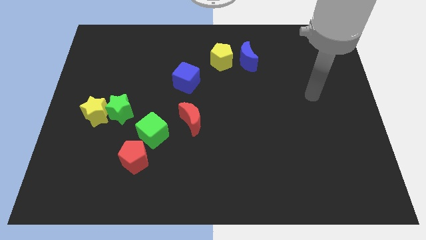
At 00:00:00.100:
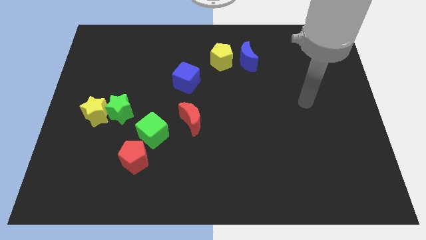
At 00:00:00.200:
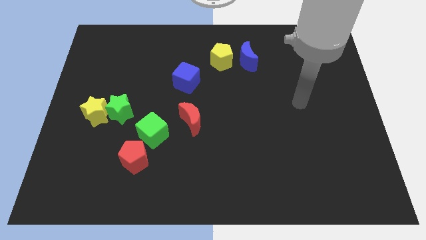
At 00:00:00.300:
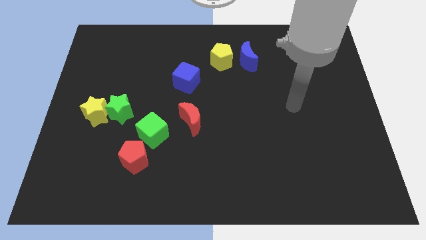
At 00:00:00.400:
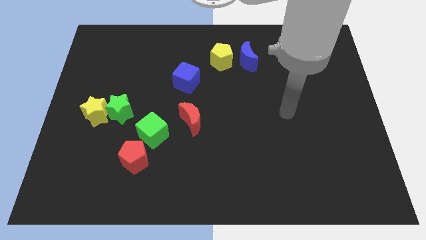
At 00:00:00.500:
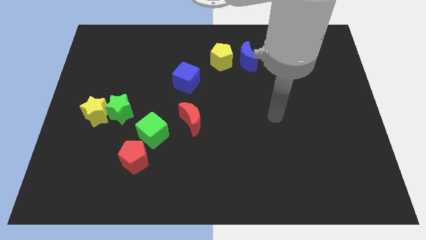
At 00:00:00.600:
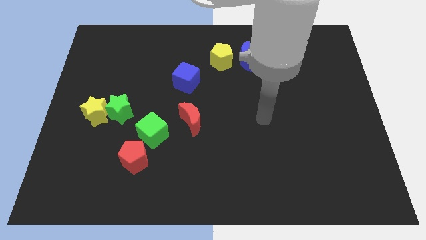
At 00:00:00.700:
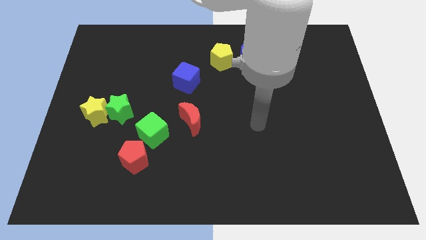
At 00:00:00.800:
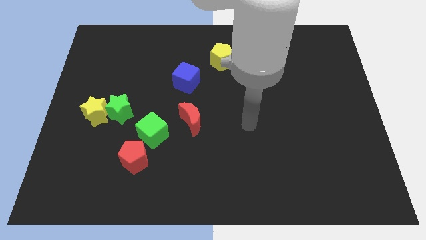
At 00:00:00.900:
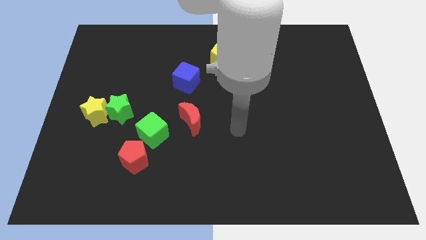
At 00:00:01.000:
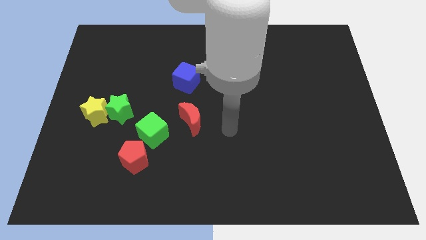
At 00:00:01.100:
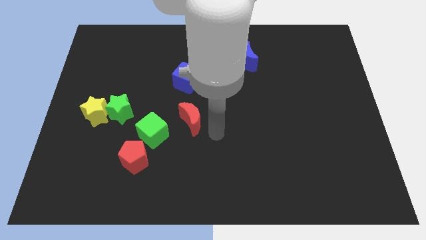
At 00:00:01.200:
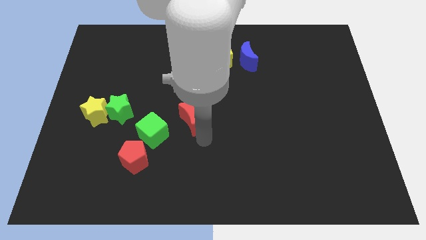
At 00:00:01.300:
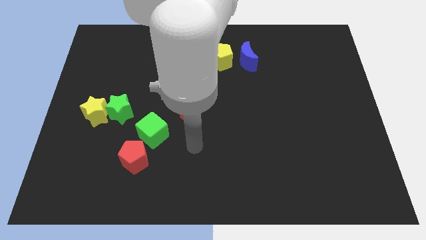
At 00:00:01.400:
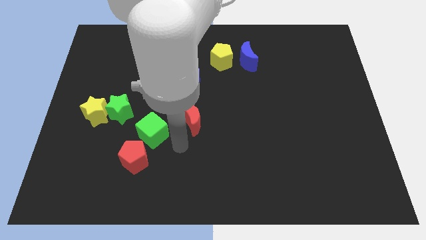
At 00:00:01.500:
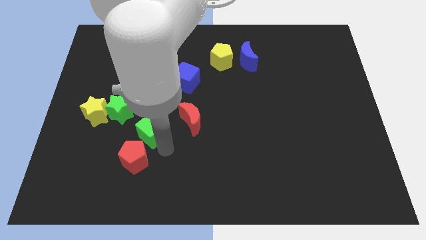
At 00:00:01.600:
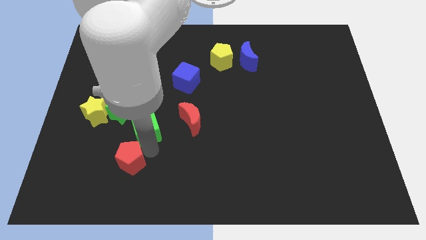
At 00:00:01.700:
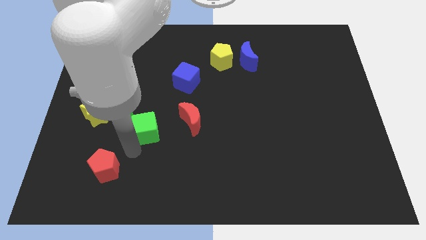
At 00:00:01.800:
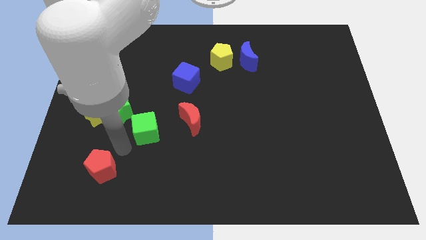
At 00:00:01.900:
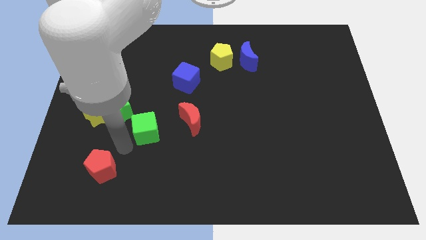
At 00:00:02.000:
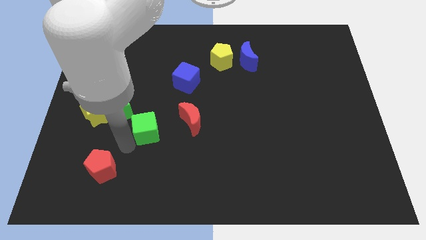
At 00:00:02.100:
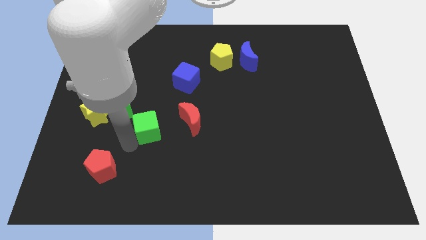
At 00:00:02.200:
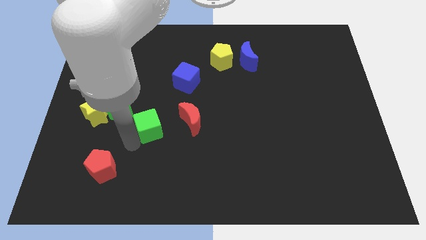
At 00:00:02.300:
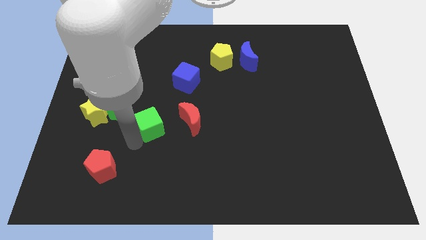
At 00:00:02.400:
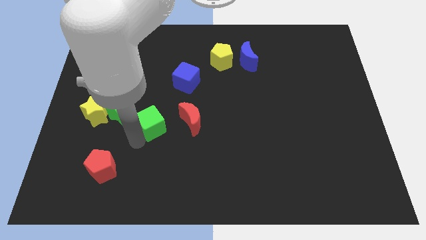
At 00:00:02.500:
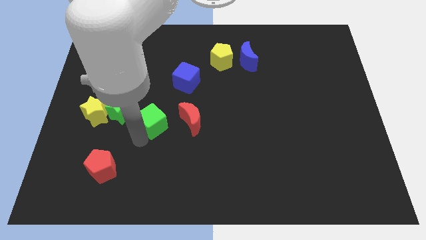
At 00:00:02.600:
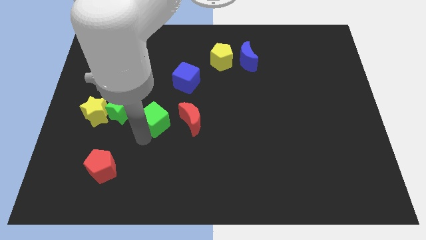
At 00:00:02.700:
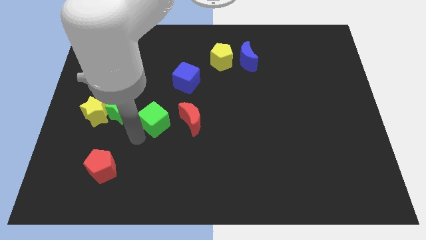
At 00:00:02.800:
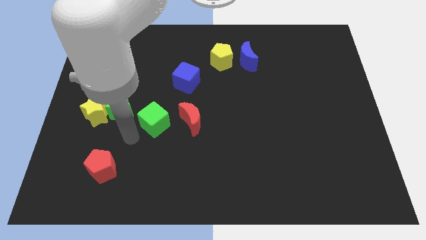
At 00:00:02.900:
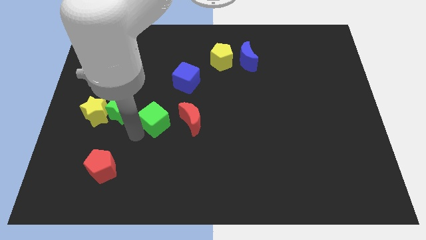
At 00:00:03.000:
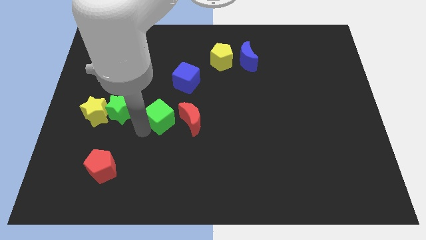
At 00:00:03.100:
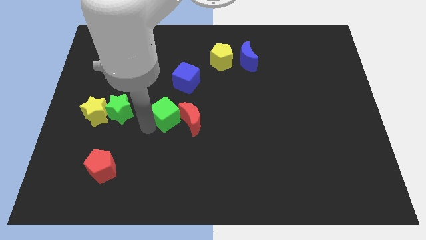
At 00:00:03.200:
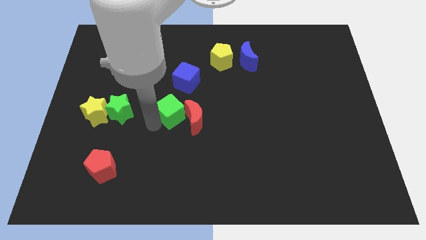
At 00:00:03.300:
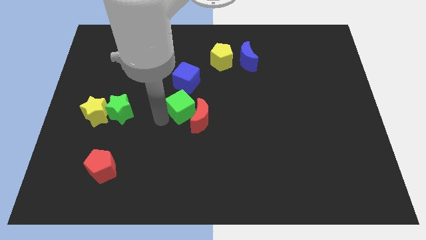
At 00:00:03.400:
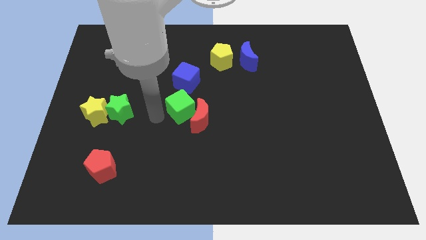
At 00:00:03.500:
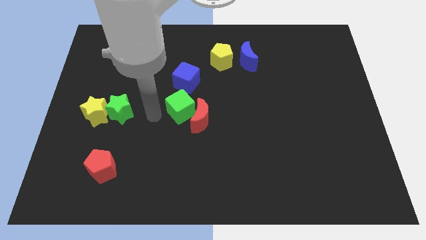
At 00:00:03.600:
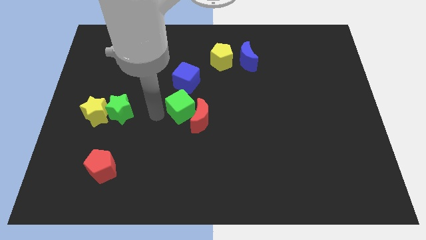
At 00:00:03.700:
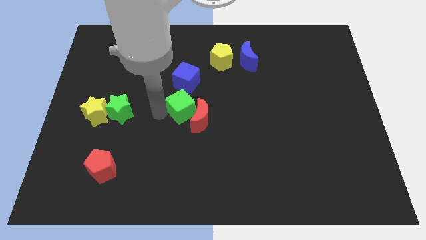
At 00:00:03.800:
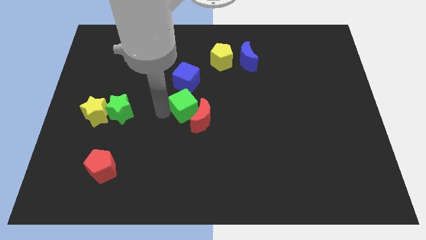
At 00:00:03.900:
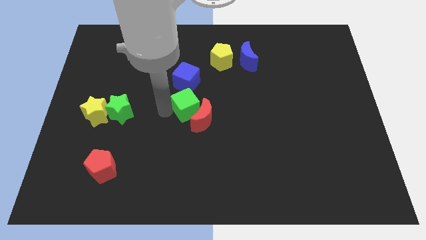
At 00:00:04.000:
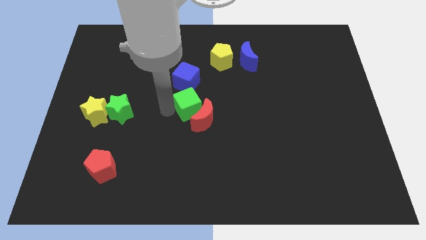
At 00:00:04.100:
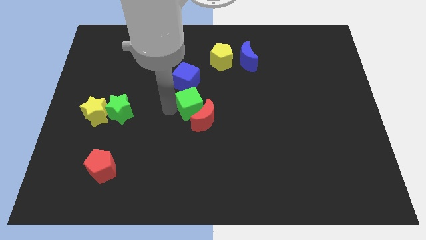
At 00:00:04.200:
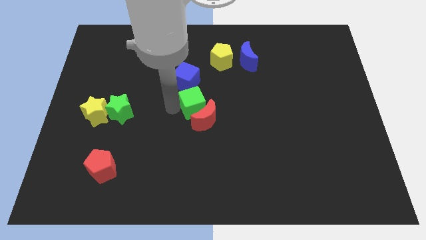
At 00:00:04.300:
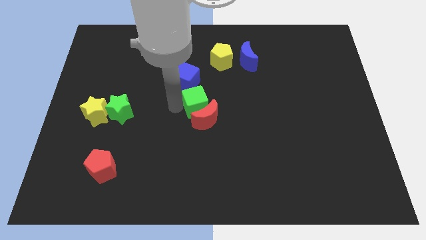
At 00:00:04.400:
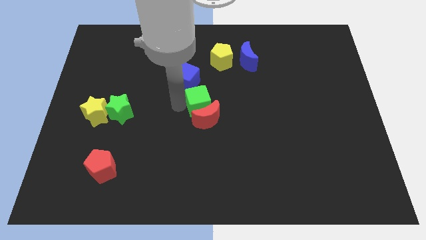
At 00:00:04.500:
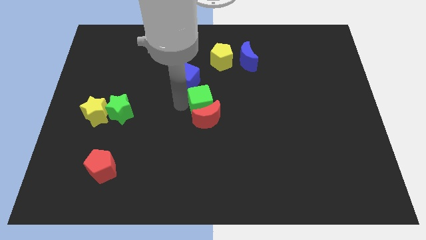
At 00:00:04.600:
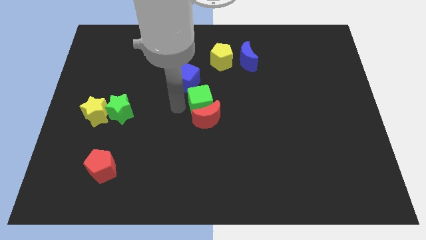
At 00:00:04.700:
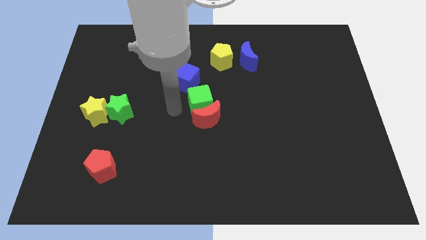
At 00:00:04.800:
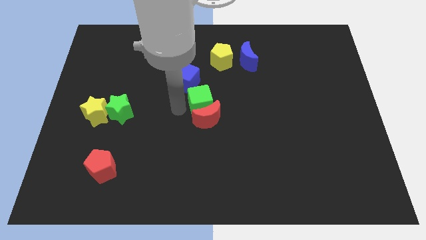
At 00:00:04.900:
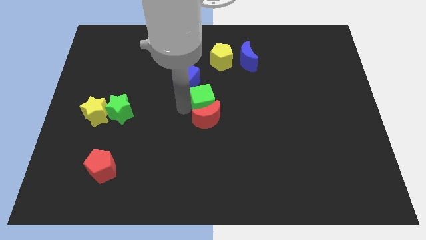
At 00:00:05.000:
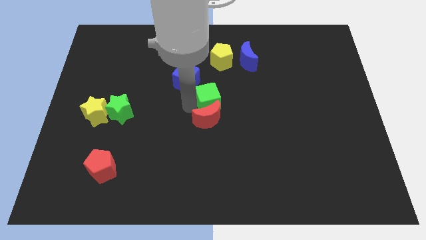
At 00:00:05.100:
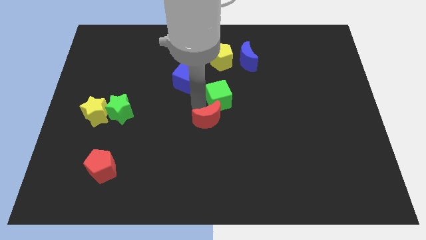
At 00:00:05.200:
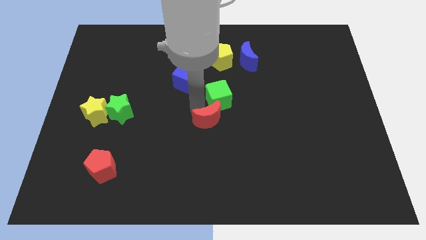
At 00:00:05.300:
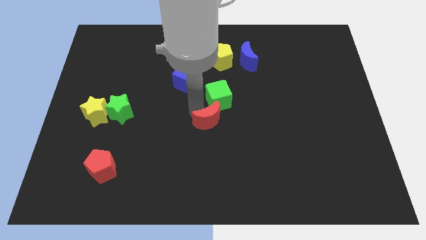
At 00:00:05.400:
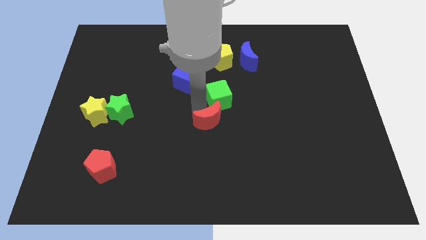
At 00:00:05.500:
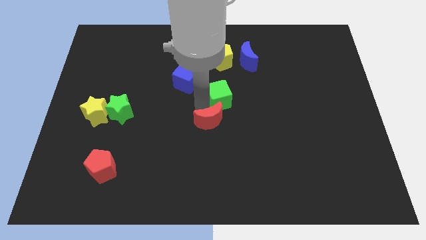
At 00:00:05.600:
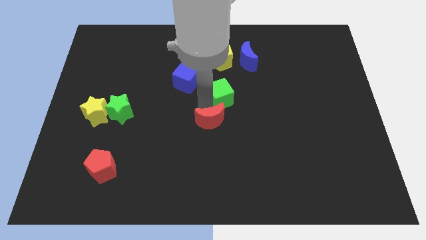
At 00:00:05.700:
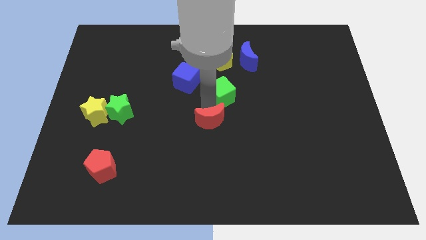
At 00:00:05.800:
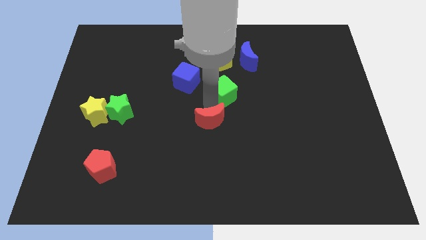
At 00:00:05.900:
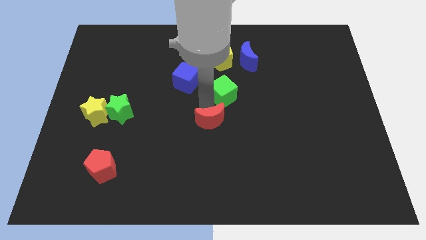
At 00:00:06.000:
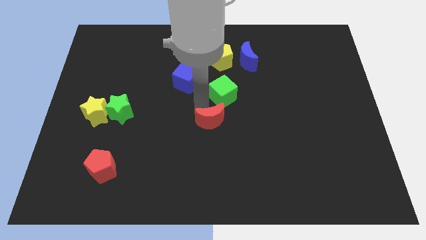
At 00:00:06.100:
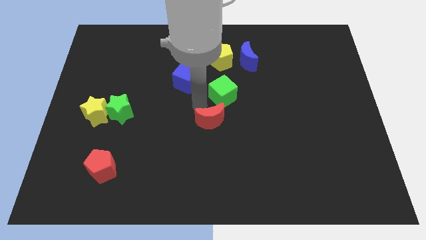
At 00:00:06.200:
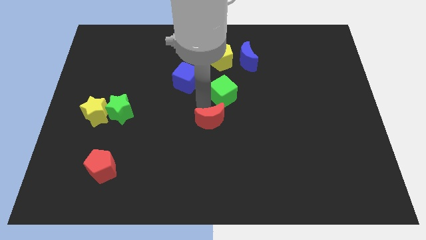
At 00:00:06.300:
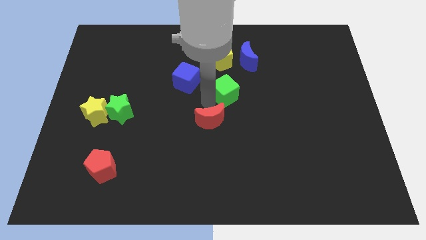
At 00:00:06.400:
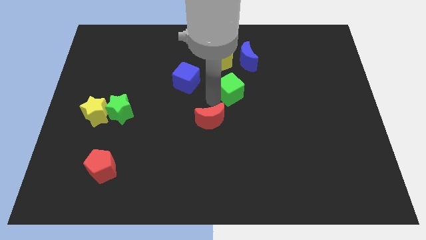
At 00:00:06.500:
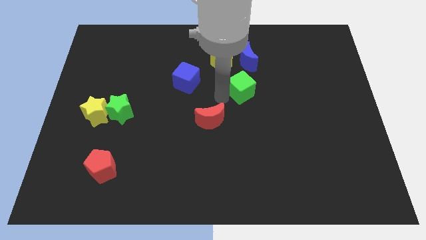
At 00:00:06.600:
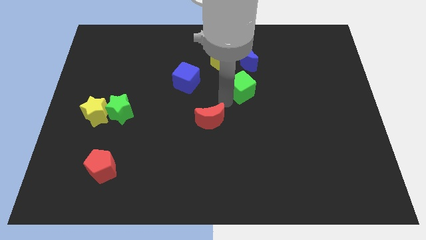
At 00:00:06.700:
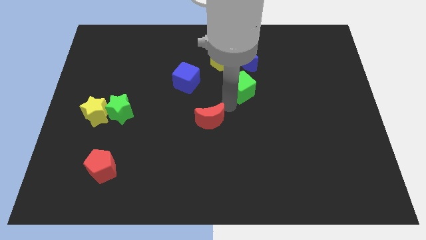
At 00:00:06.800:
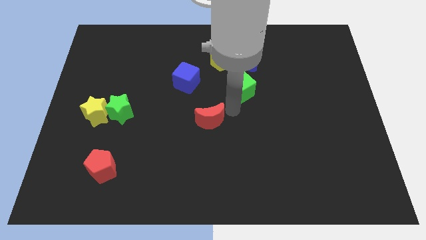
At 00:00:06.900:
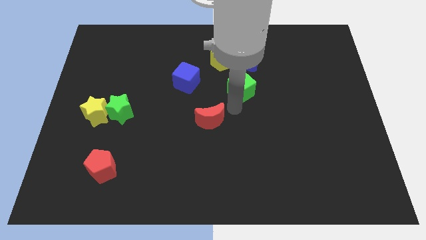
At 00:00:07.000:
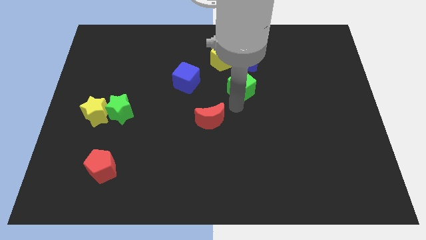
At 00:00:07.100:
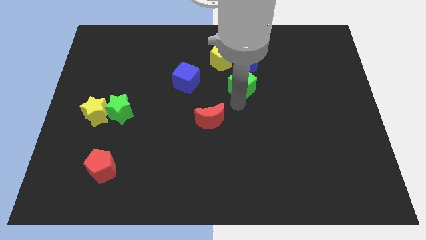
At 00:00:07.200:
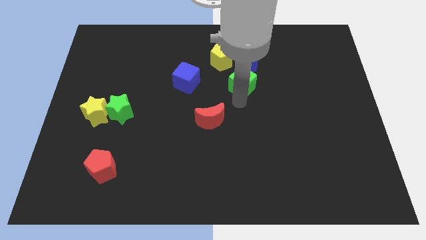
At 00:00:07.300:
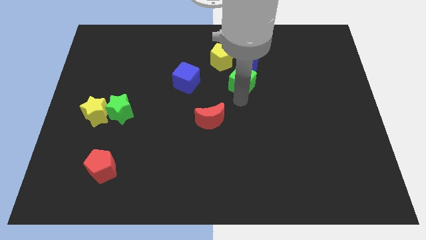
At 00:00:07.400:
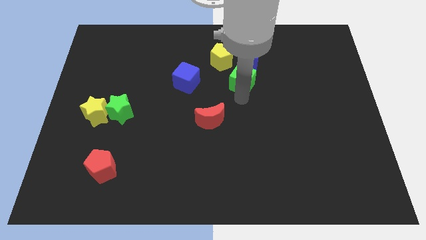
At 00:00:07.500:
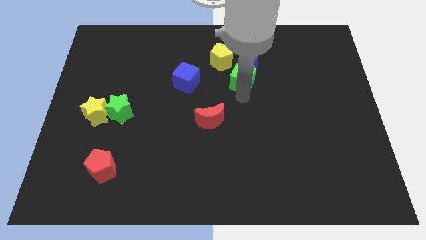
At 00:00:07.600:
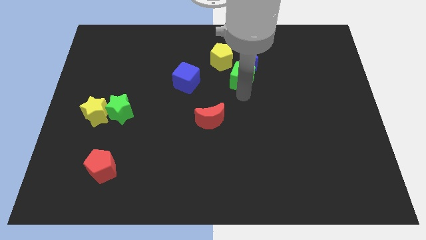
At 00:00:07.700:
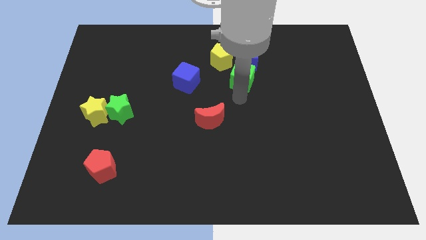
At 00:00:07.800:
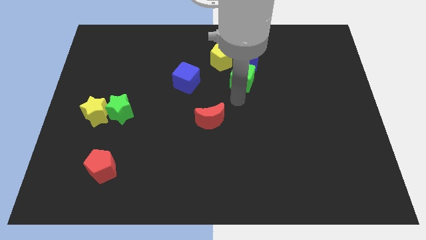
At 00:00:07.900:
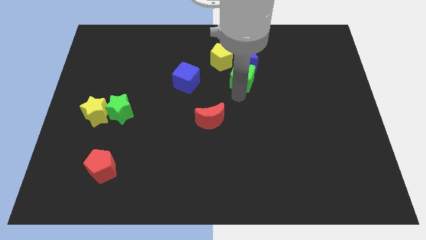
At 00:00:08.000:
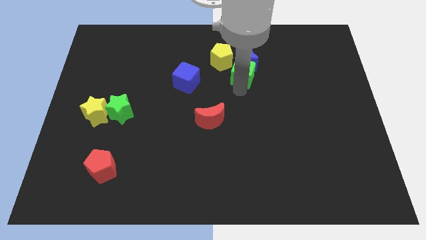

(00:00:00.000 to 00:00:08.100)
push the green cube towards the blue moon
